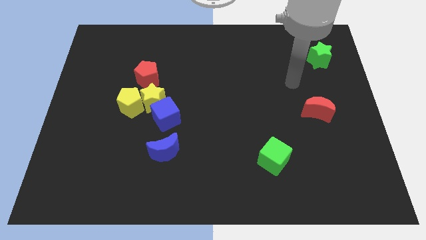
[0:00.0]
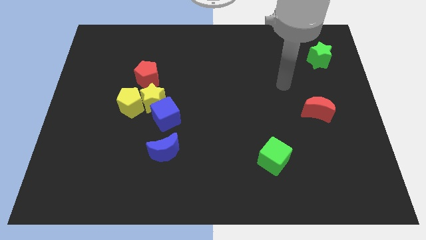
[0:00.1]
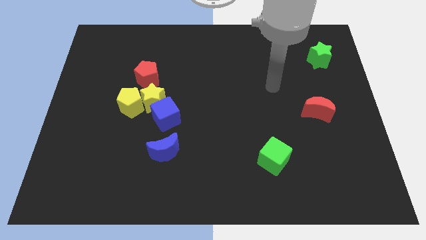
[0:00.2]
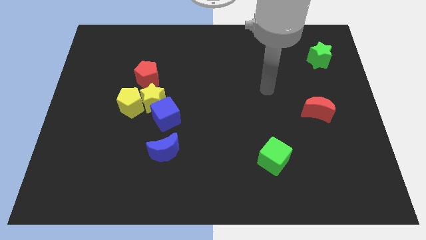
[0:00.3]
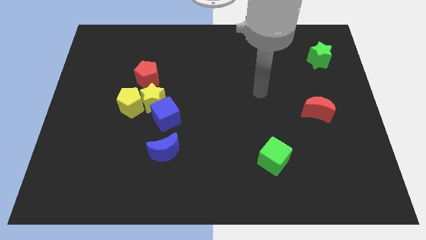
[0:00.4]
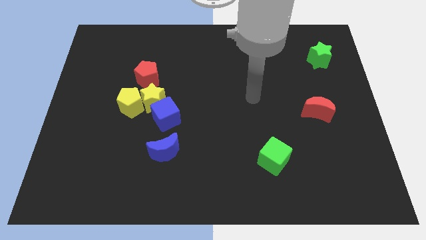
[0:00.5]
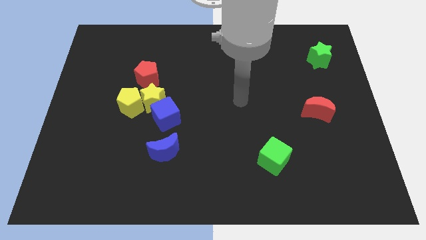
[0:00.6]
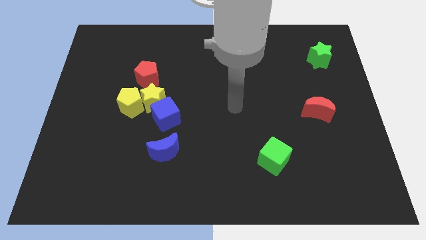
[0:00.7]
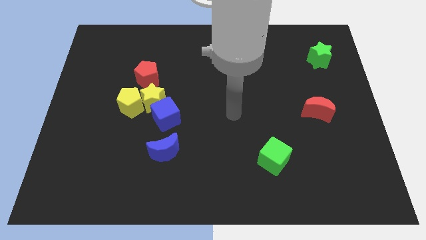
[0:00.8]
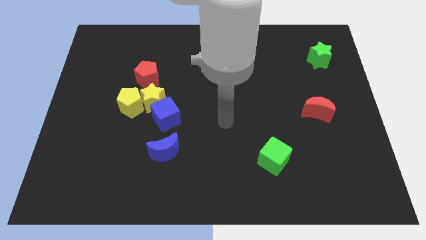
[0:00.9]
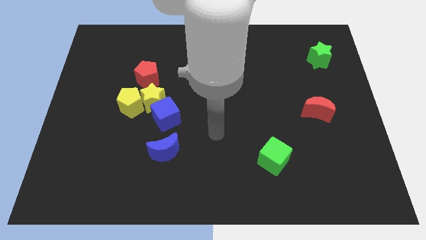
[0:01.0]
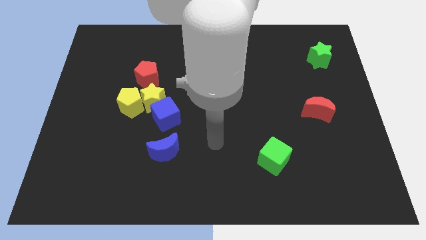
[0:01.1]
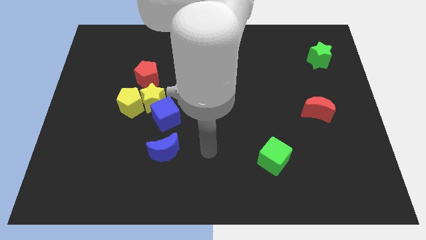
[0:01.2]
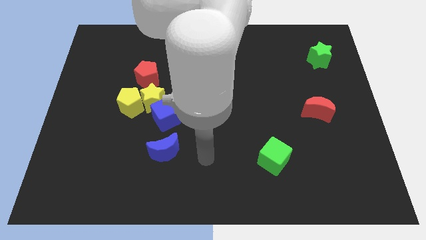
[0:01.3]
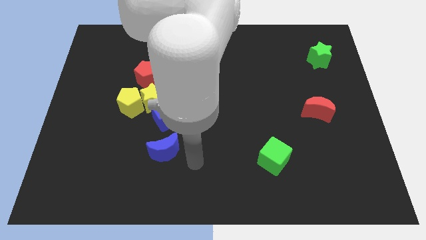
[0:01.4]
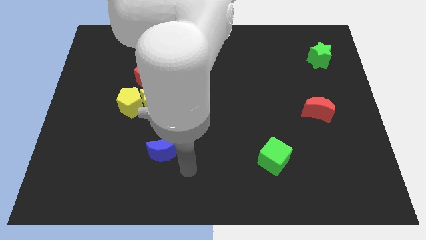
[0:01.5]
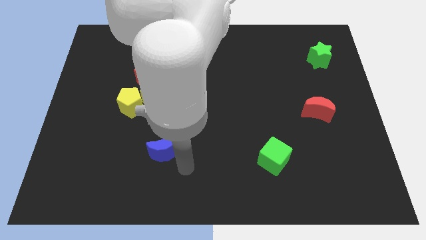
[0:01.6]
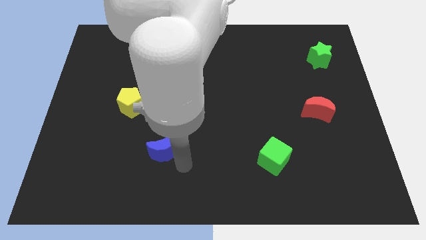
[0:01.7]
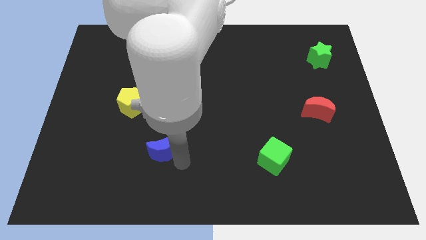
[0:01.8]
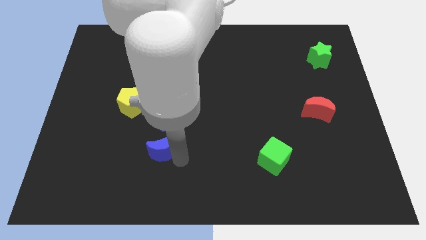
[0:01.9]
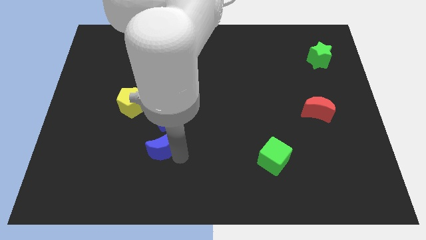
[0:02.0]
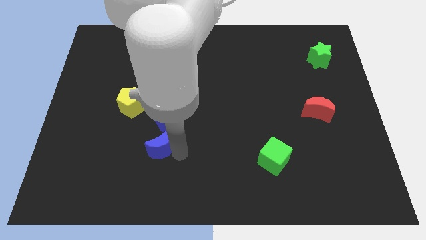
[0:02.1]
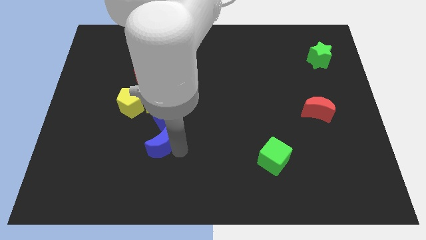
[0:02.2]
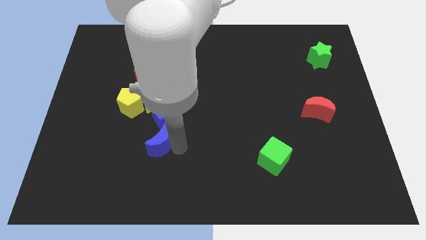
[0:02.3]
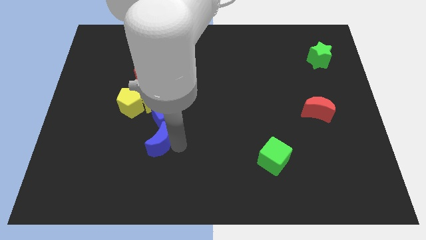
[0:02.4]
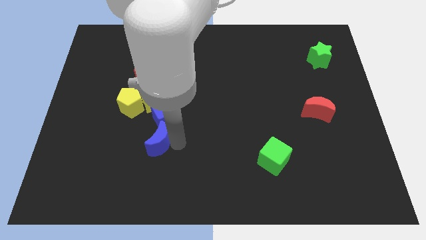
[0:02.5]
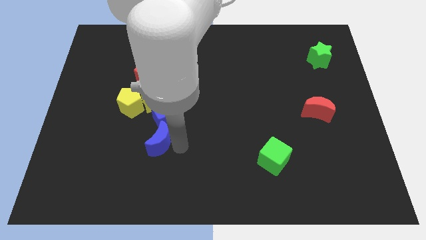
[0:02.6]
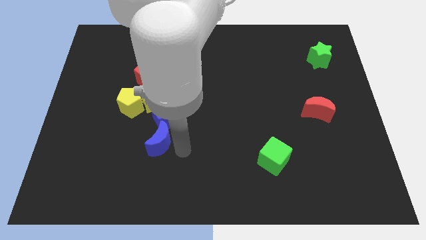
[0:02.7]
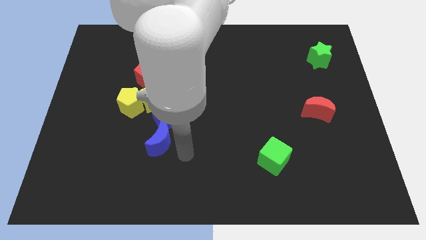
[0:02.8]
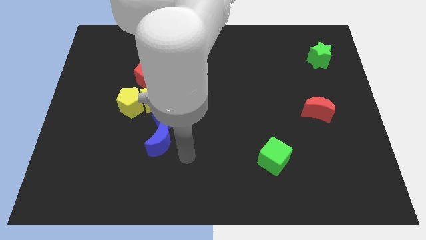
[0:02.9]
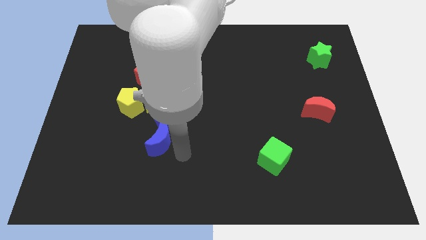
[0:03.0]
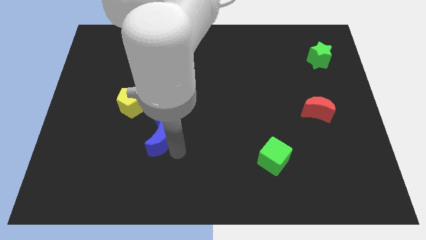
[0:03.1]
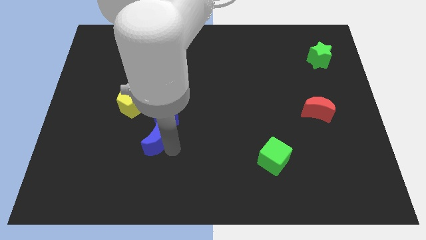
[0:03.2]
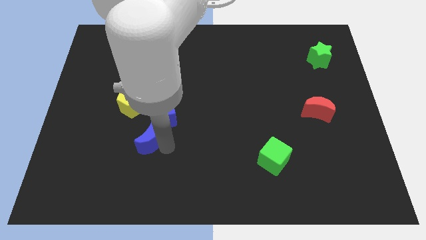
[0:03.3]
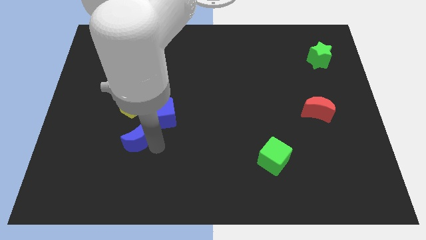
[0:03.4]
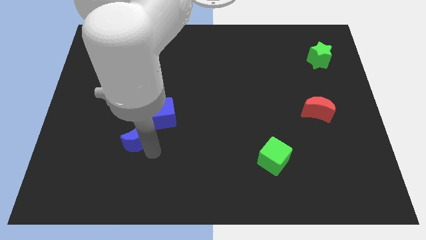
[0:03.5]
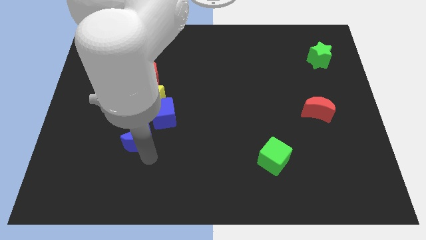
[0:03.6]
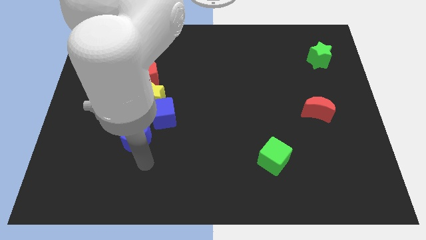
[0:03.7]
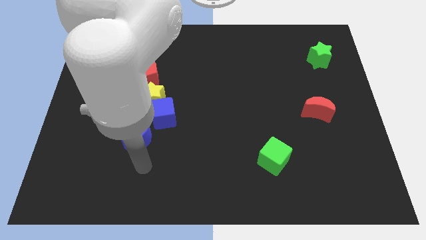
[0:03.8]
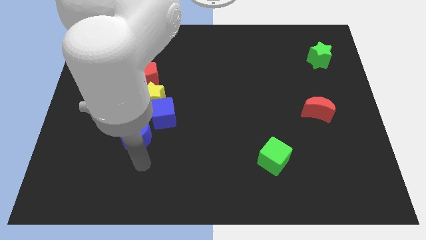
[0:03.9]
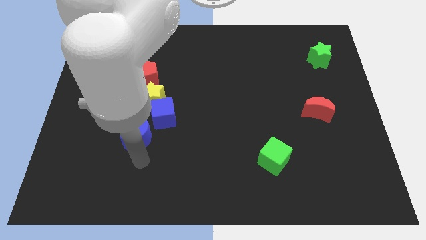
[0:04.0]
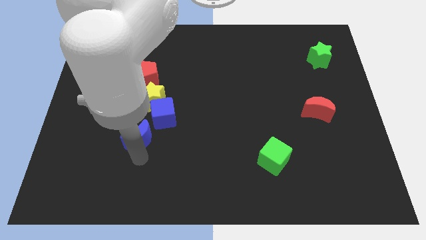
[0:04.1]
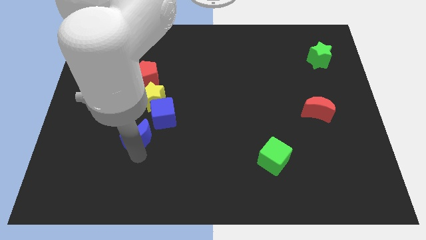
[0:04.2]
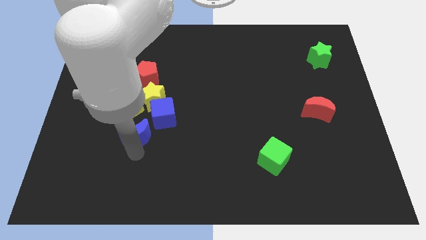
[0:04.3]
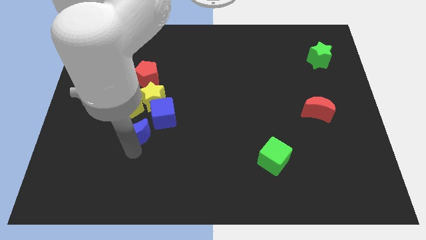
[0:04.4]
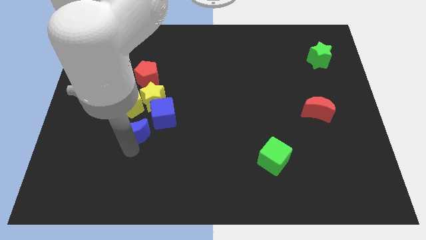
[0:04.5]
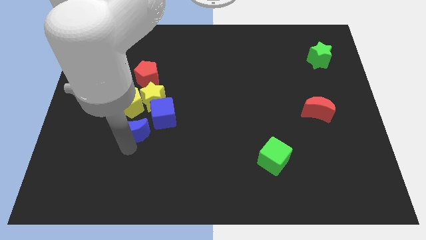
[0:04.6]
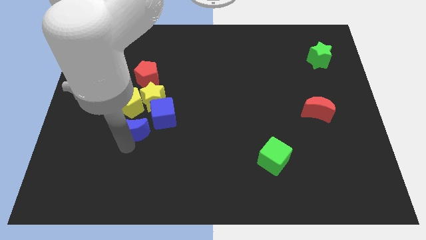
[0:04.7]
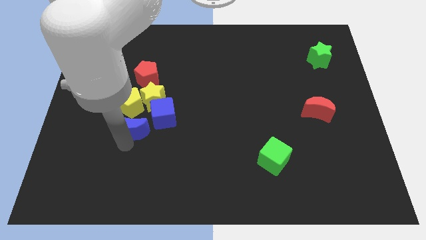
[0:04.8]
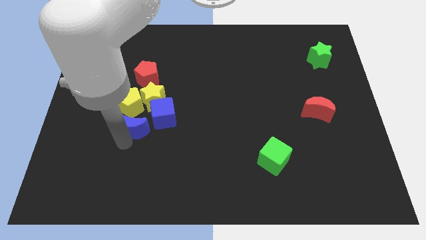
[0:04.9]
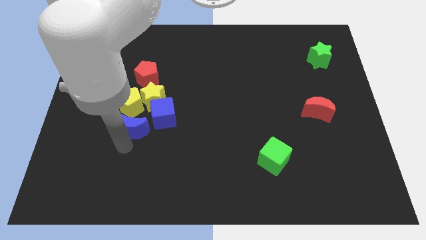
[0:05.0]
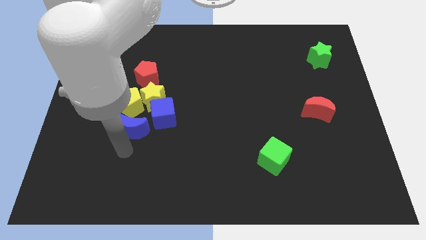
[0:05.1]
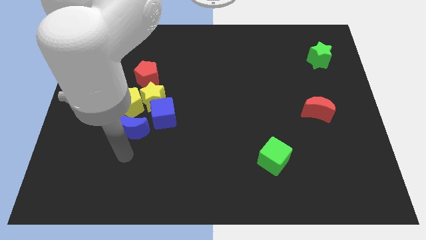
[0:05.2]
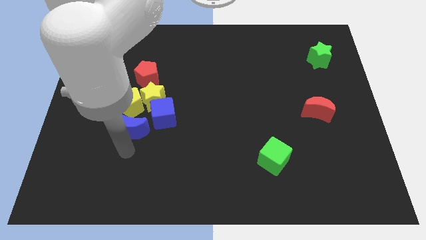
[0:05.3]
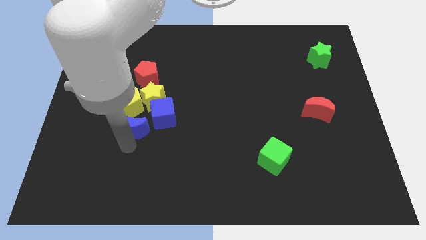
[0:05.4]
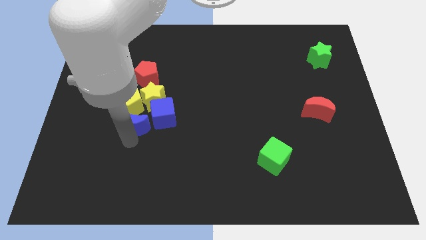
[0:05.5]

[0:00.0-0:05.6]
put the blue moon towards the yellow pentagon

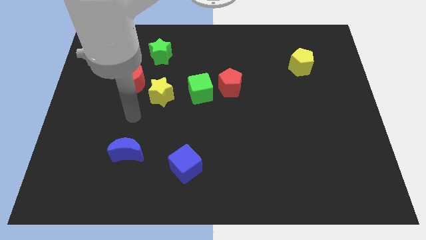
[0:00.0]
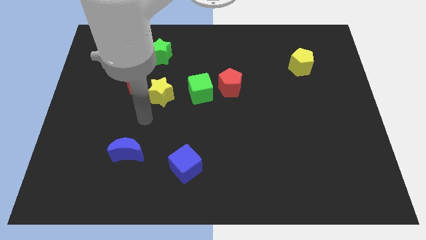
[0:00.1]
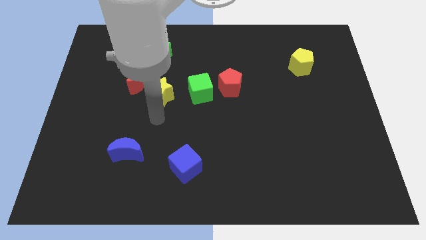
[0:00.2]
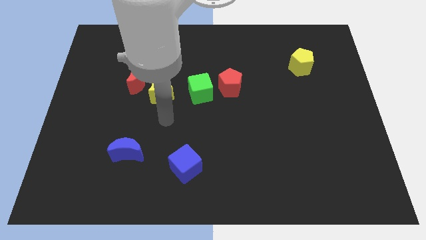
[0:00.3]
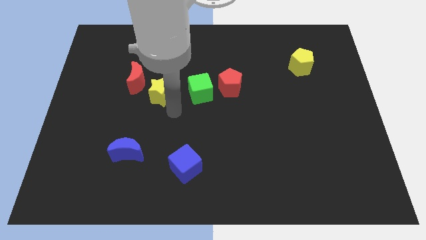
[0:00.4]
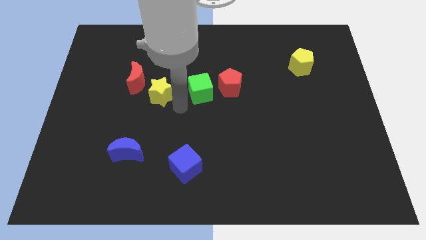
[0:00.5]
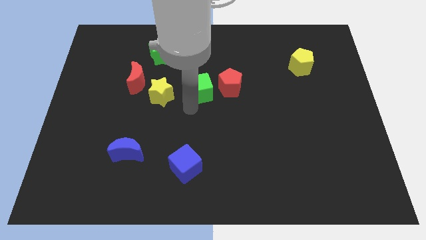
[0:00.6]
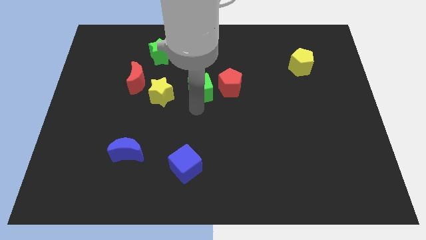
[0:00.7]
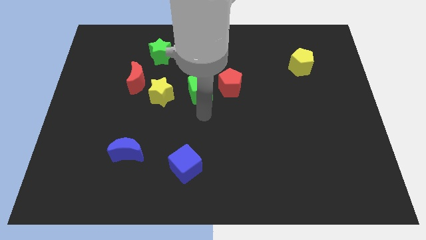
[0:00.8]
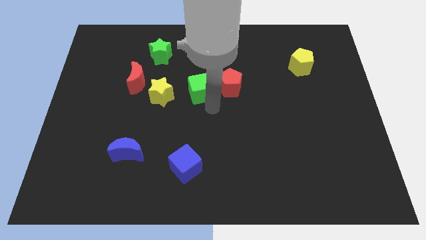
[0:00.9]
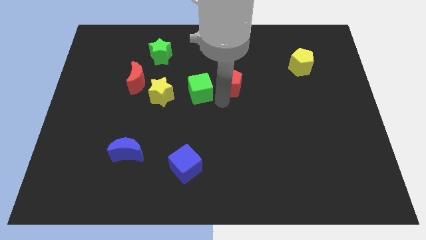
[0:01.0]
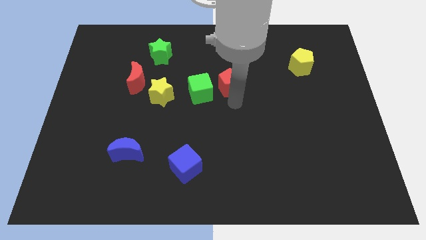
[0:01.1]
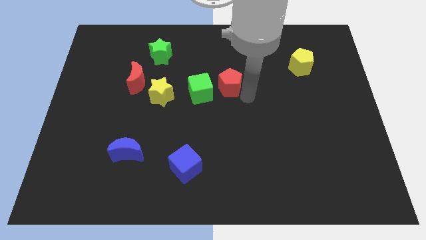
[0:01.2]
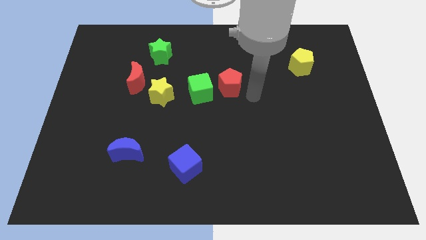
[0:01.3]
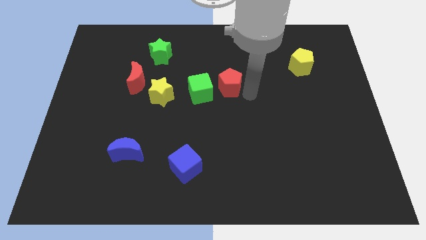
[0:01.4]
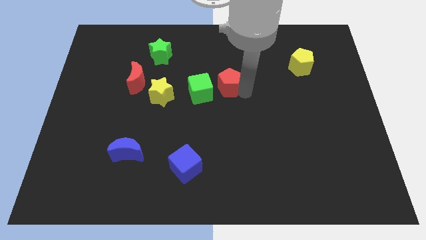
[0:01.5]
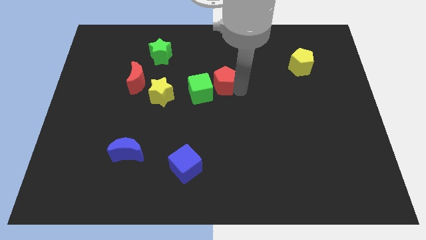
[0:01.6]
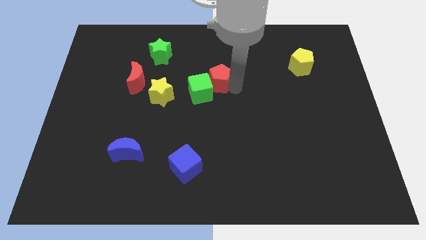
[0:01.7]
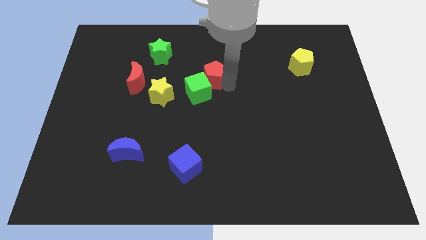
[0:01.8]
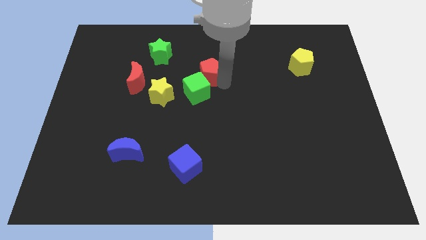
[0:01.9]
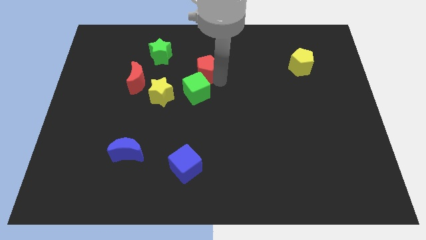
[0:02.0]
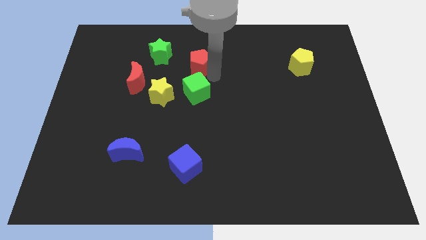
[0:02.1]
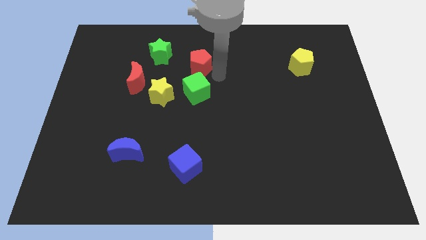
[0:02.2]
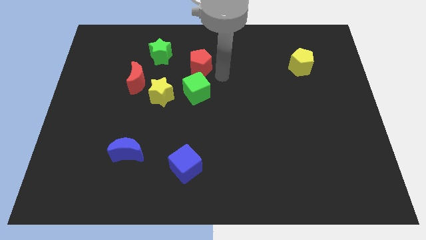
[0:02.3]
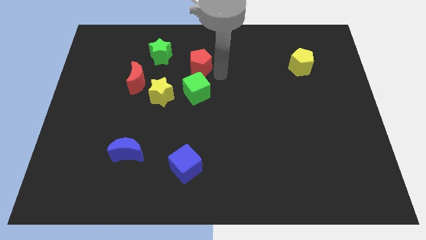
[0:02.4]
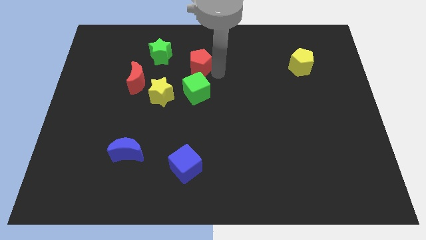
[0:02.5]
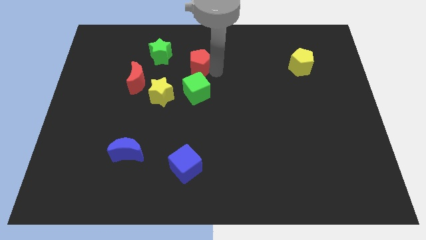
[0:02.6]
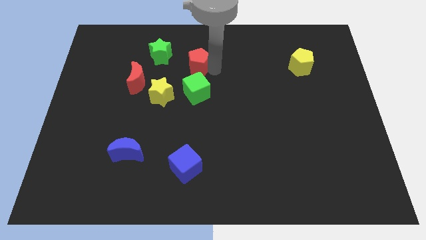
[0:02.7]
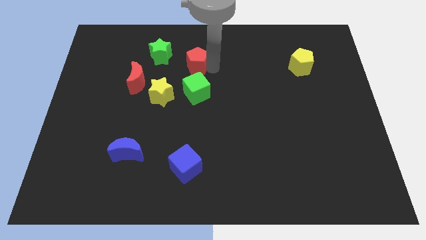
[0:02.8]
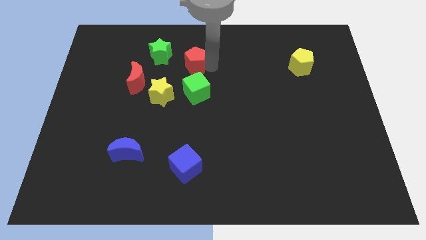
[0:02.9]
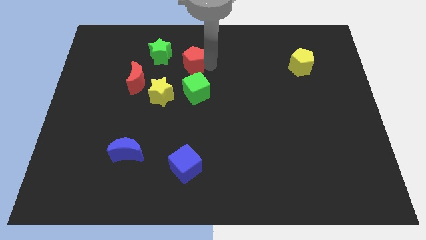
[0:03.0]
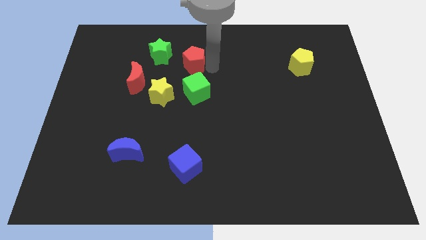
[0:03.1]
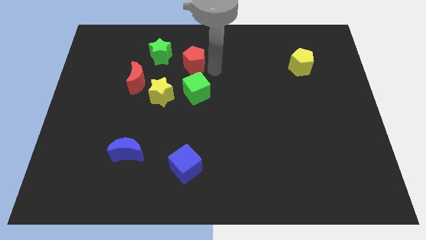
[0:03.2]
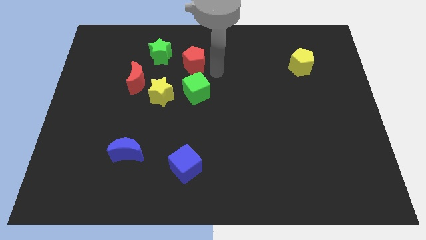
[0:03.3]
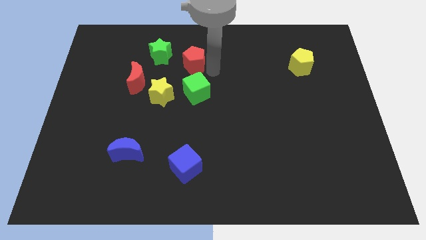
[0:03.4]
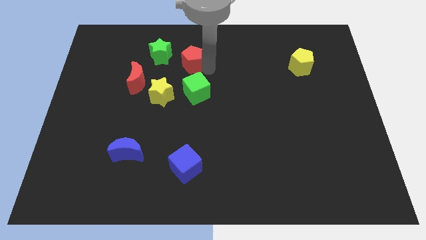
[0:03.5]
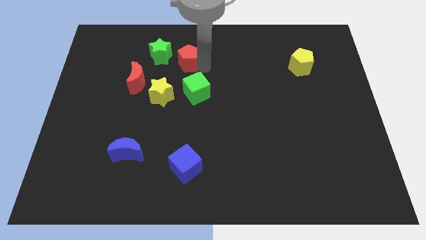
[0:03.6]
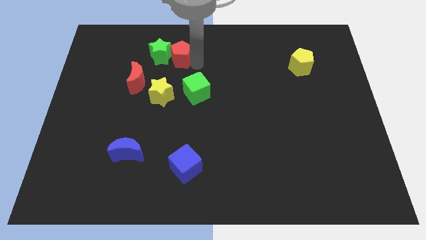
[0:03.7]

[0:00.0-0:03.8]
put the red pentagon towards the green star
